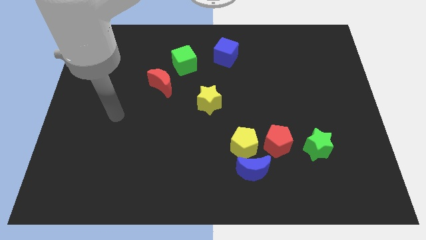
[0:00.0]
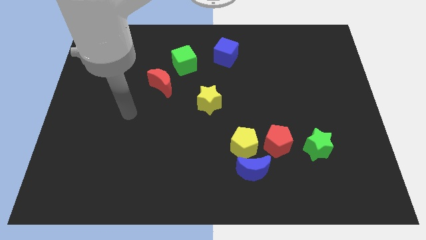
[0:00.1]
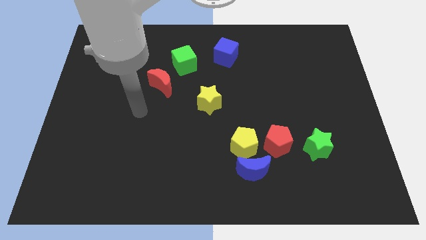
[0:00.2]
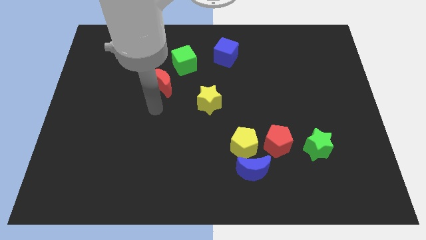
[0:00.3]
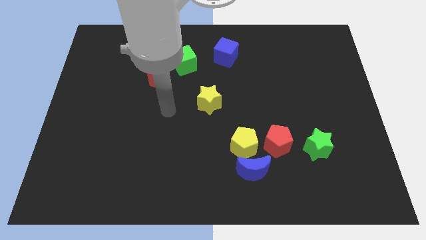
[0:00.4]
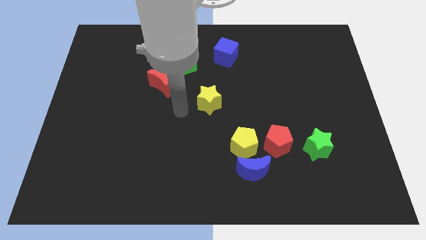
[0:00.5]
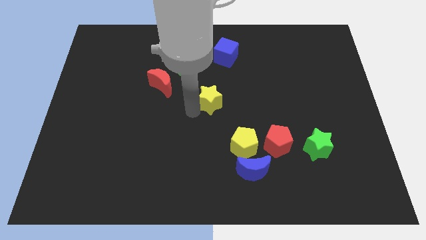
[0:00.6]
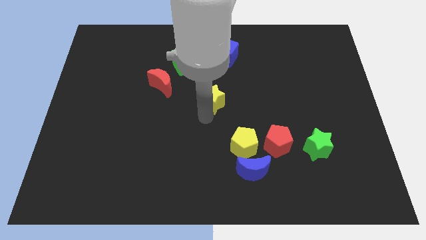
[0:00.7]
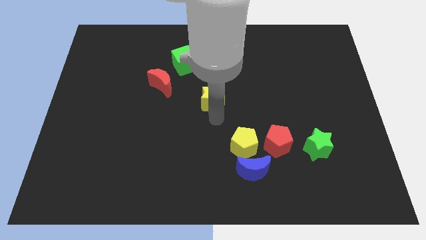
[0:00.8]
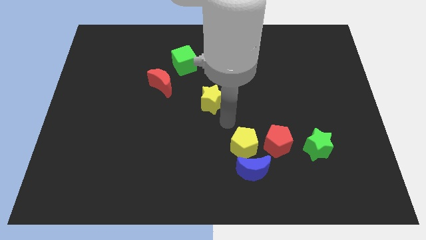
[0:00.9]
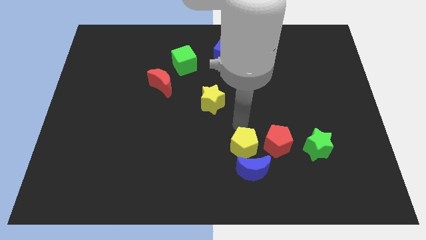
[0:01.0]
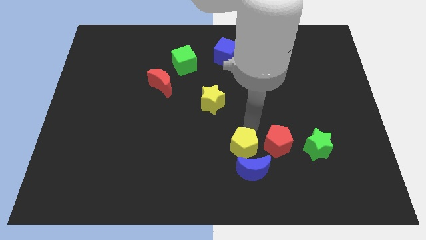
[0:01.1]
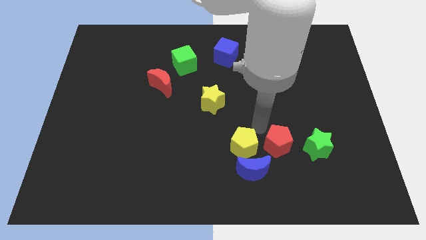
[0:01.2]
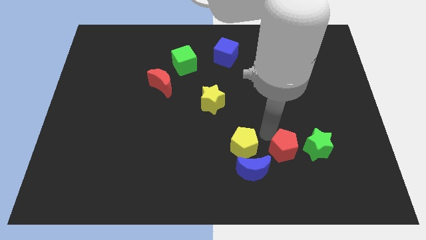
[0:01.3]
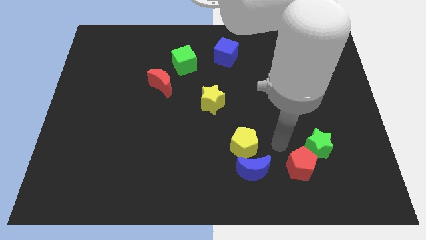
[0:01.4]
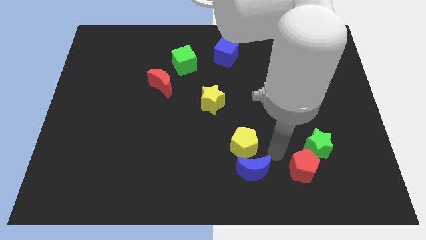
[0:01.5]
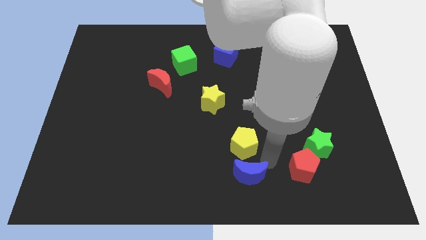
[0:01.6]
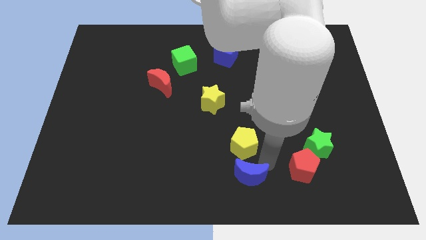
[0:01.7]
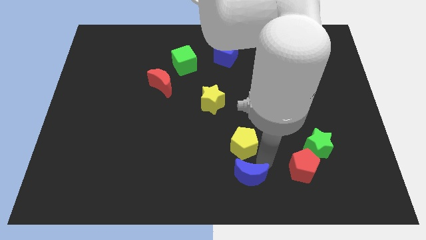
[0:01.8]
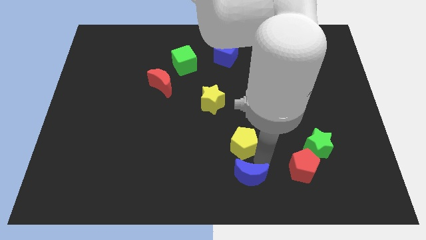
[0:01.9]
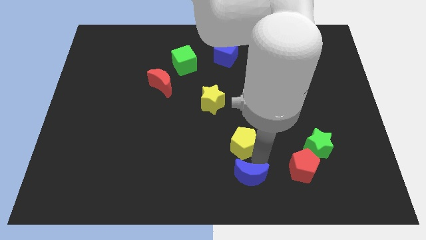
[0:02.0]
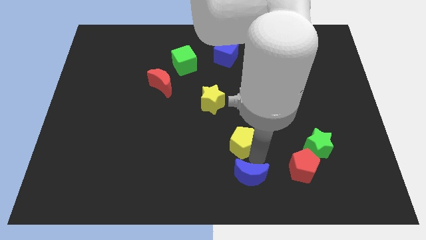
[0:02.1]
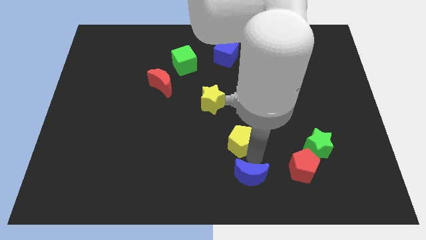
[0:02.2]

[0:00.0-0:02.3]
separate the yellow pentagon from the blue moon and red pentagon

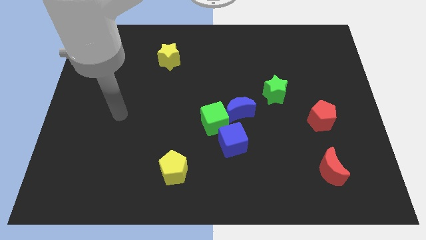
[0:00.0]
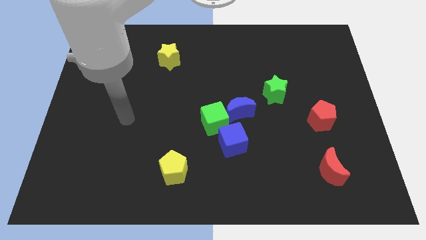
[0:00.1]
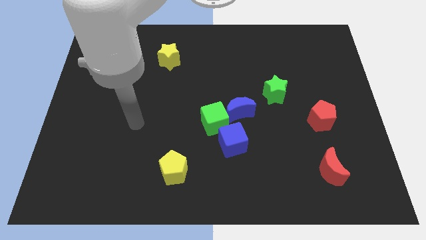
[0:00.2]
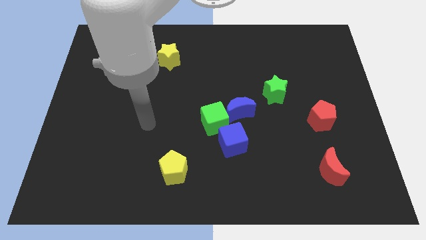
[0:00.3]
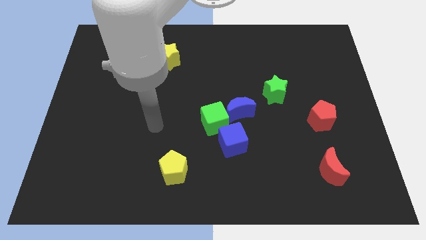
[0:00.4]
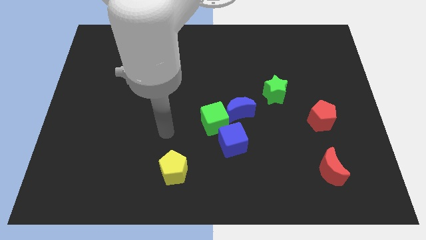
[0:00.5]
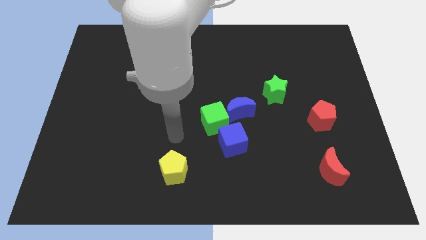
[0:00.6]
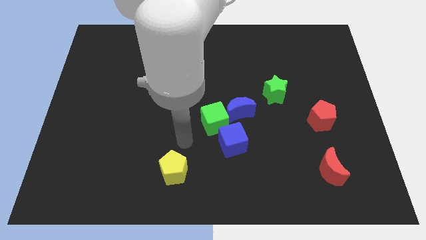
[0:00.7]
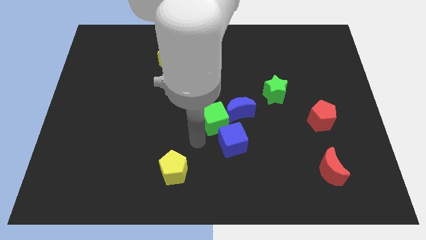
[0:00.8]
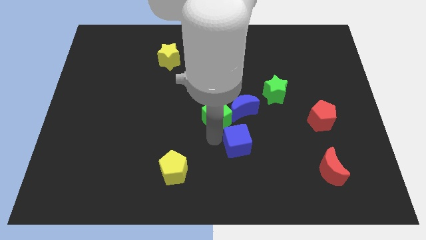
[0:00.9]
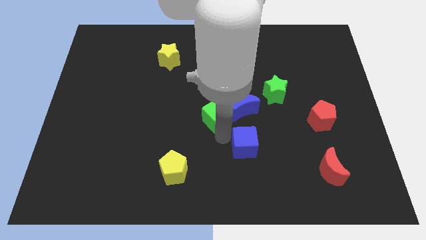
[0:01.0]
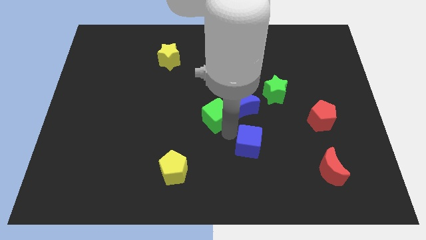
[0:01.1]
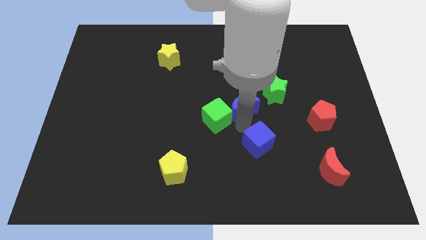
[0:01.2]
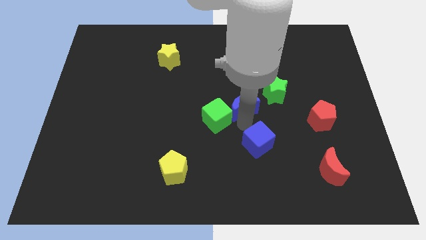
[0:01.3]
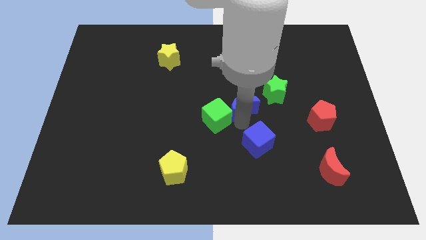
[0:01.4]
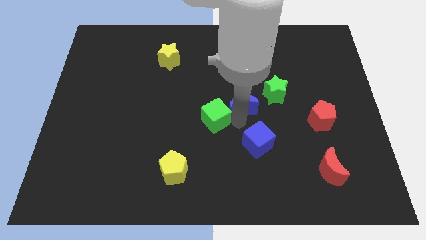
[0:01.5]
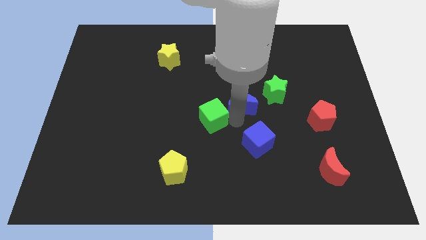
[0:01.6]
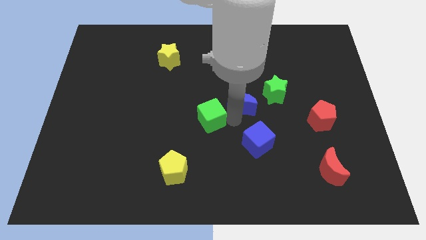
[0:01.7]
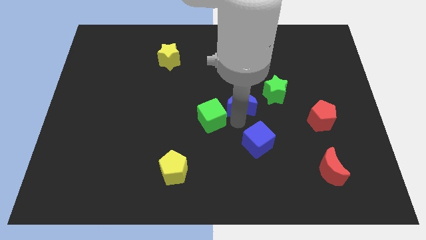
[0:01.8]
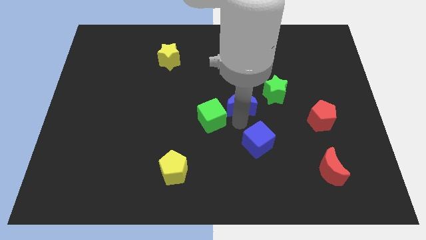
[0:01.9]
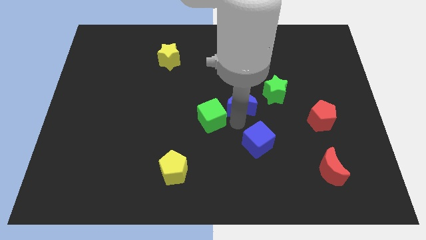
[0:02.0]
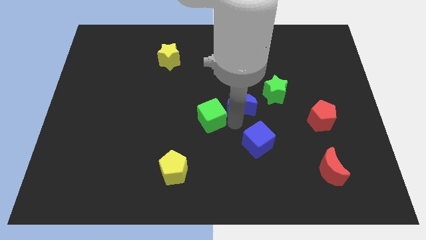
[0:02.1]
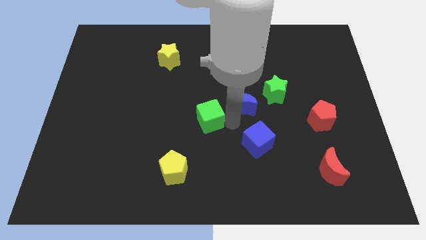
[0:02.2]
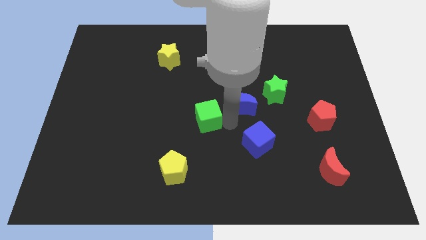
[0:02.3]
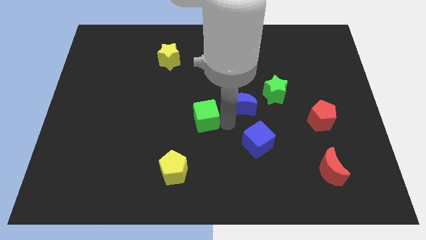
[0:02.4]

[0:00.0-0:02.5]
move the green cube away from the blue moon and blue cube

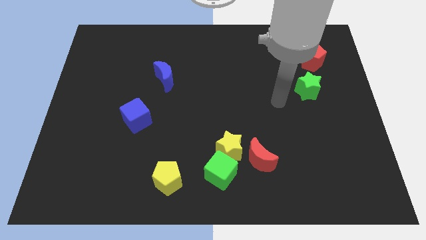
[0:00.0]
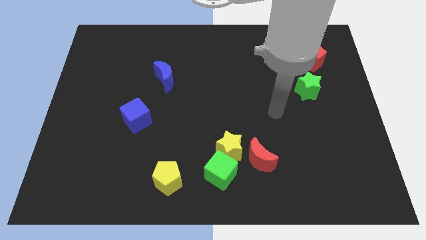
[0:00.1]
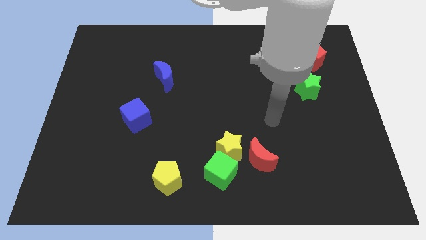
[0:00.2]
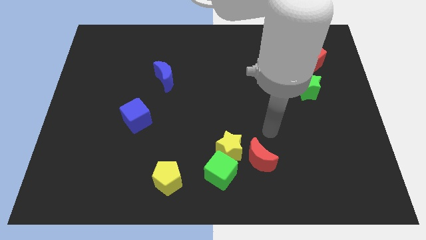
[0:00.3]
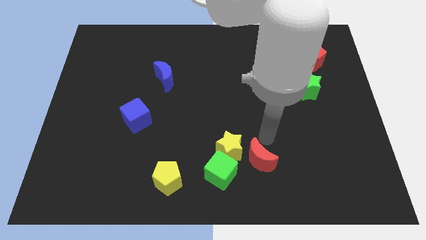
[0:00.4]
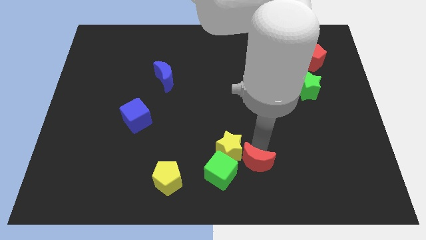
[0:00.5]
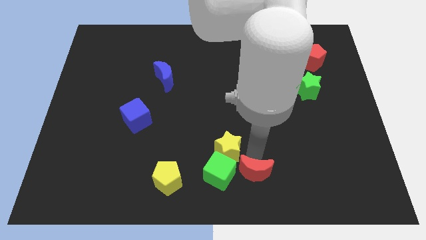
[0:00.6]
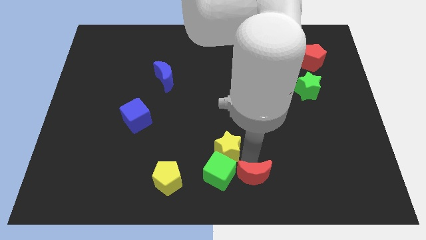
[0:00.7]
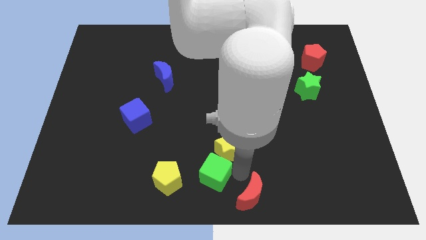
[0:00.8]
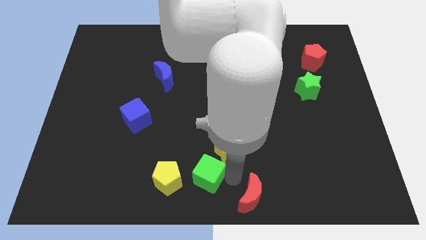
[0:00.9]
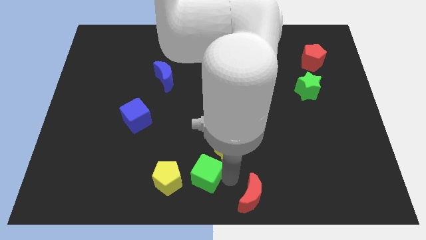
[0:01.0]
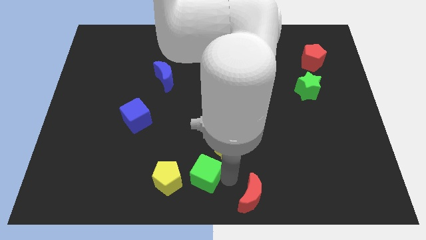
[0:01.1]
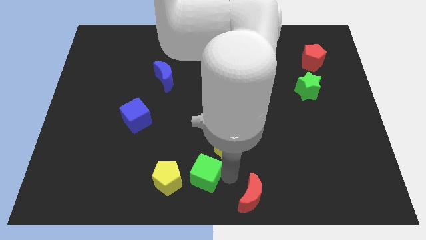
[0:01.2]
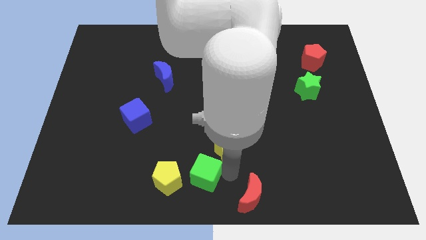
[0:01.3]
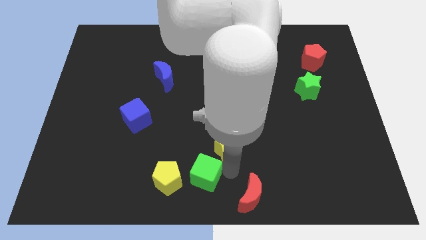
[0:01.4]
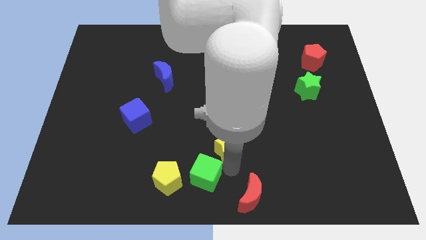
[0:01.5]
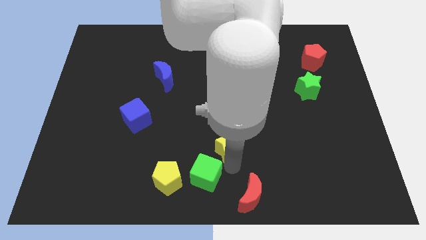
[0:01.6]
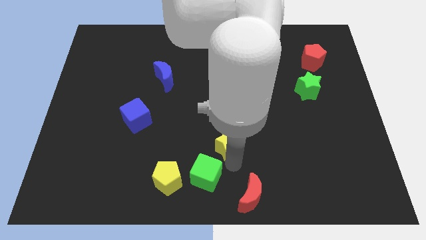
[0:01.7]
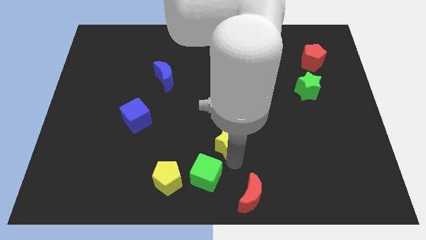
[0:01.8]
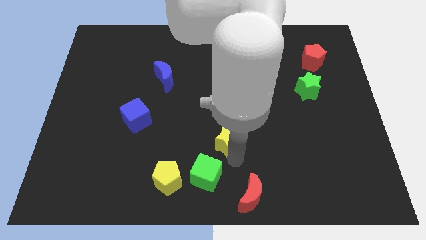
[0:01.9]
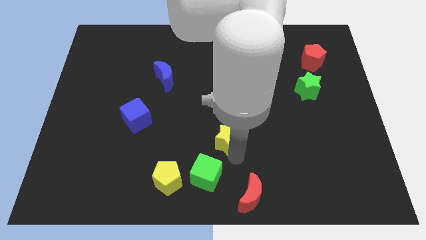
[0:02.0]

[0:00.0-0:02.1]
move the yellow star away from the green cube and red moon

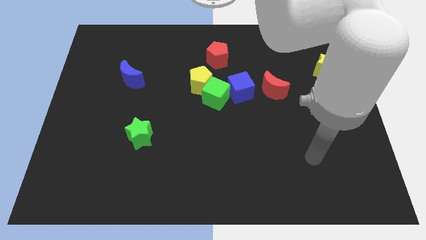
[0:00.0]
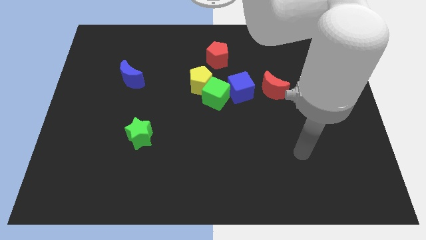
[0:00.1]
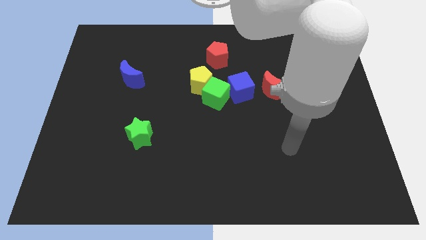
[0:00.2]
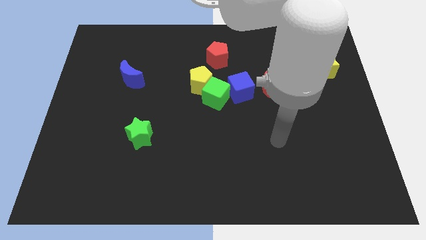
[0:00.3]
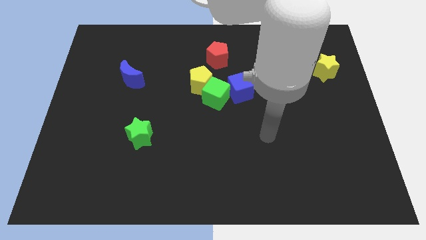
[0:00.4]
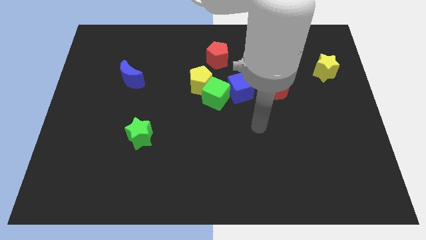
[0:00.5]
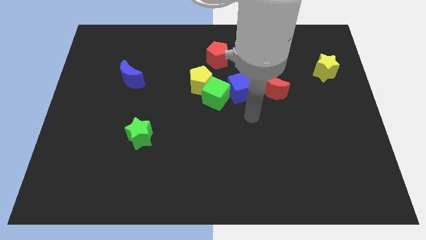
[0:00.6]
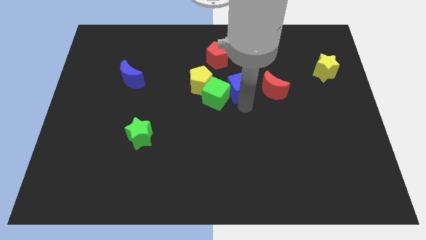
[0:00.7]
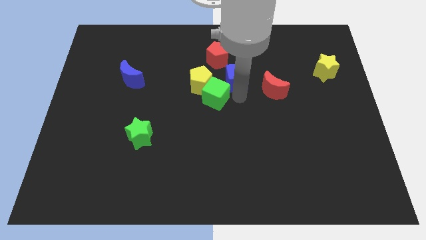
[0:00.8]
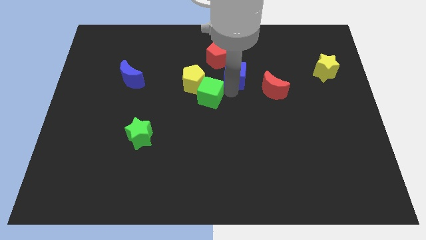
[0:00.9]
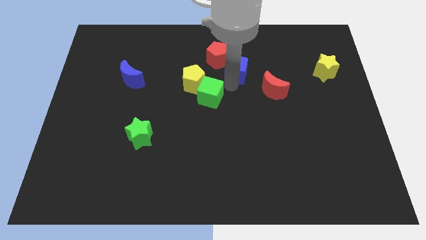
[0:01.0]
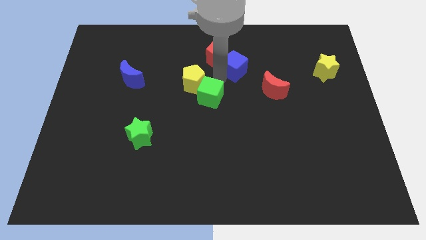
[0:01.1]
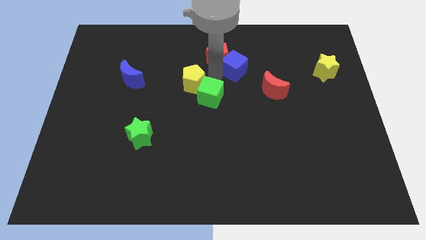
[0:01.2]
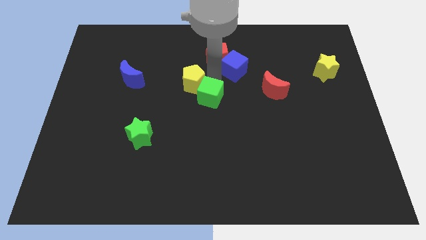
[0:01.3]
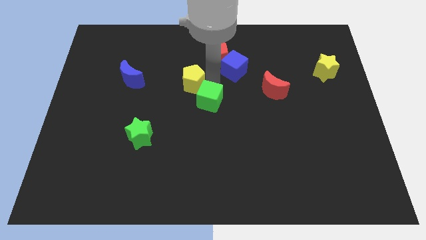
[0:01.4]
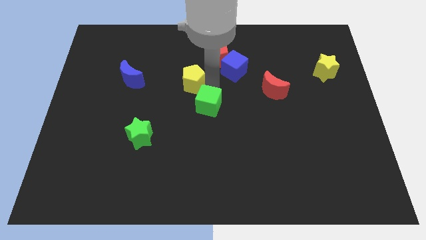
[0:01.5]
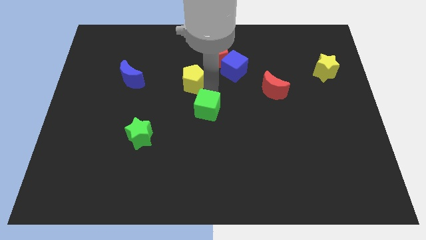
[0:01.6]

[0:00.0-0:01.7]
move the green cube away from the yellow pentagon and blue cube

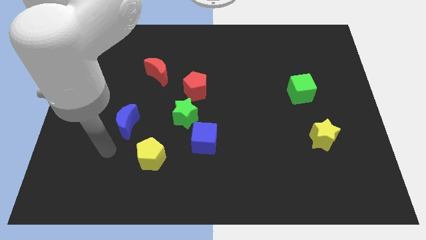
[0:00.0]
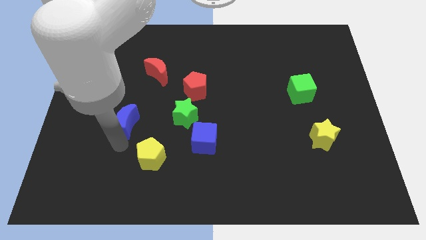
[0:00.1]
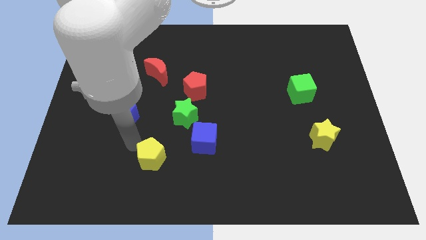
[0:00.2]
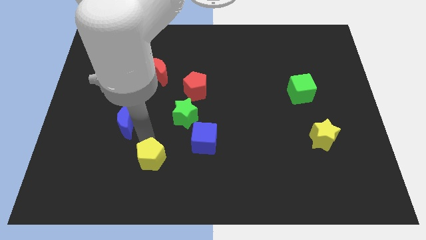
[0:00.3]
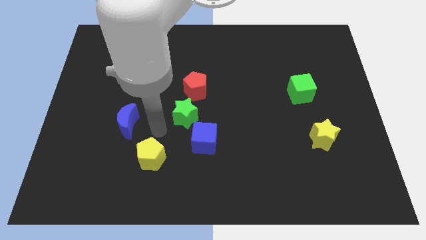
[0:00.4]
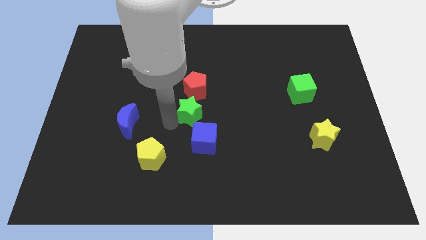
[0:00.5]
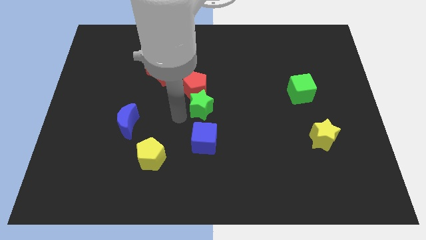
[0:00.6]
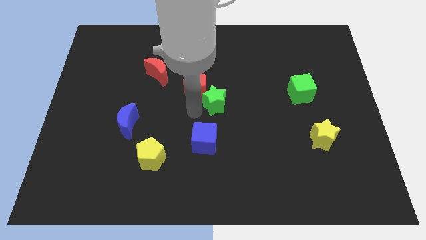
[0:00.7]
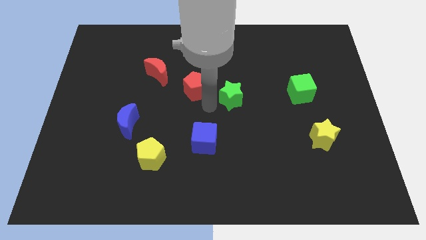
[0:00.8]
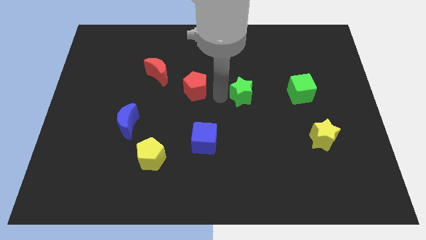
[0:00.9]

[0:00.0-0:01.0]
move the red pentagon away from the green star
